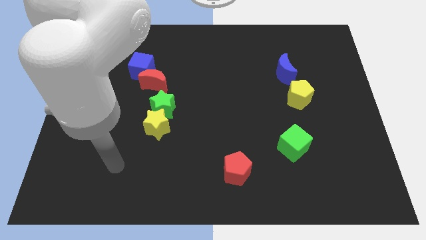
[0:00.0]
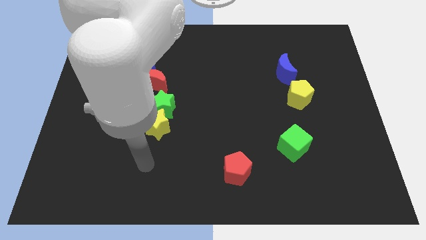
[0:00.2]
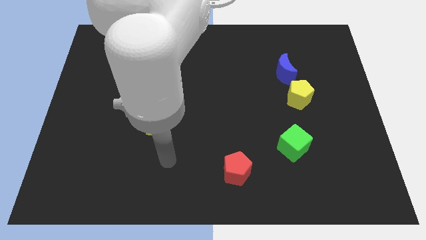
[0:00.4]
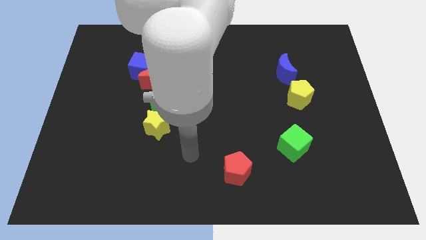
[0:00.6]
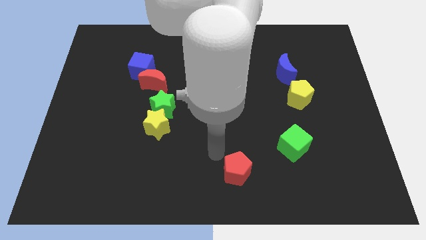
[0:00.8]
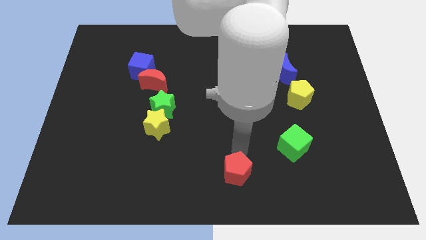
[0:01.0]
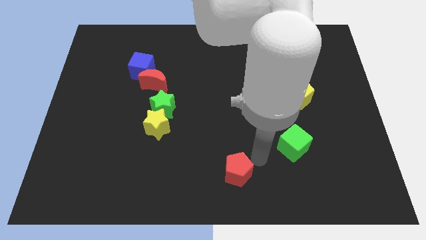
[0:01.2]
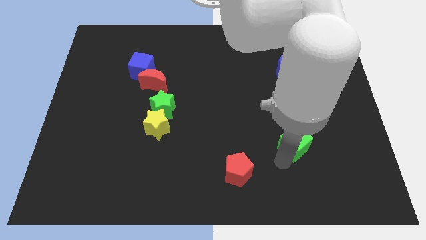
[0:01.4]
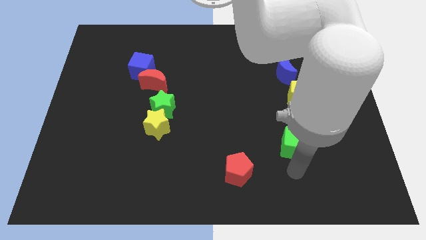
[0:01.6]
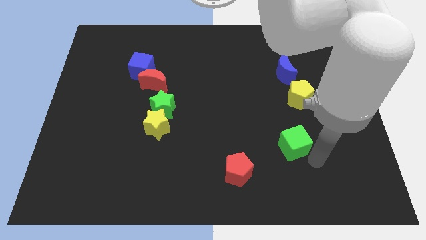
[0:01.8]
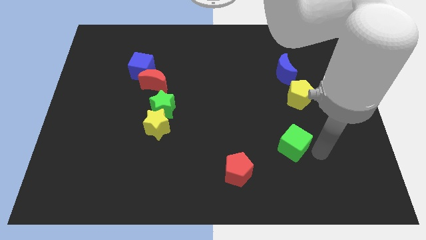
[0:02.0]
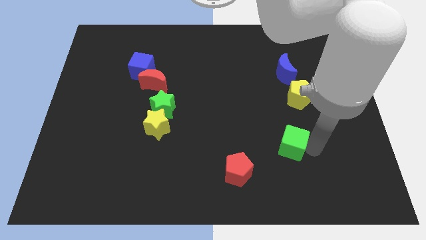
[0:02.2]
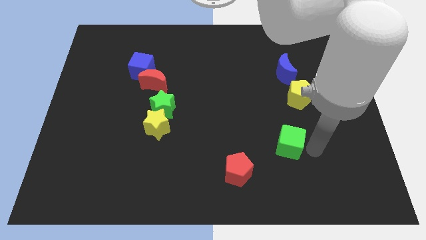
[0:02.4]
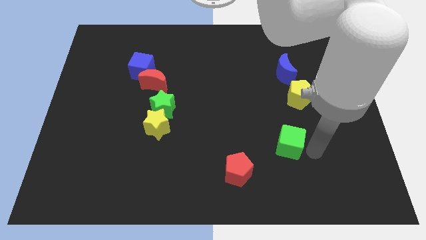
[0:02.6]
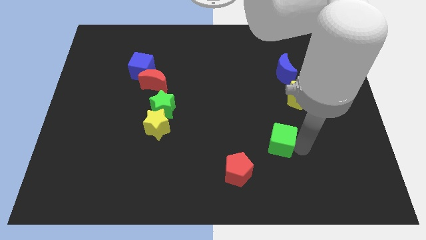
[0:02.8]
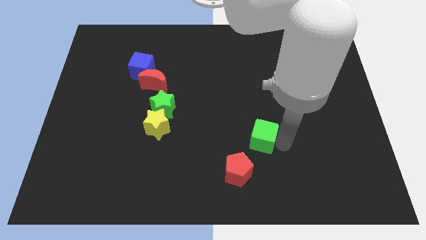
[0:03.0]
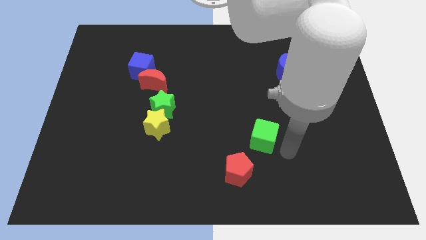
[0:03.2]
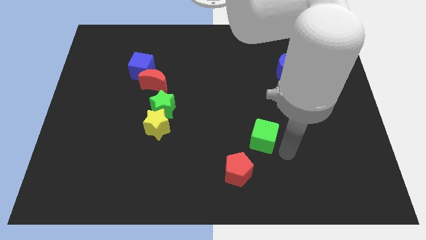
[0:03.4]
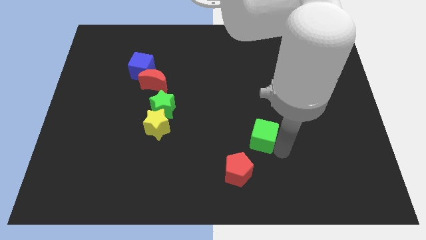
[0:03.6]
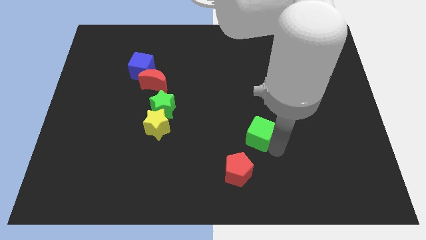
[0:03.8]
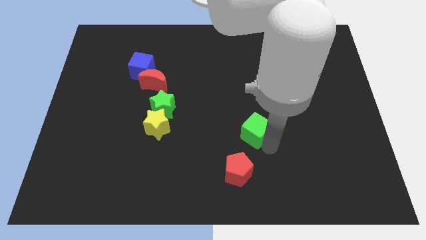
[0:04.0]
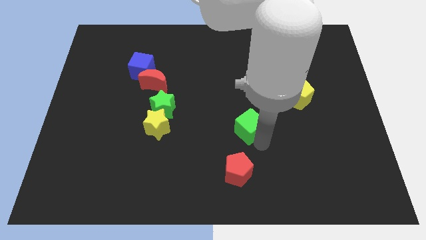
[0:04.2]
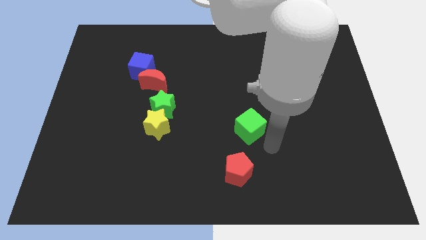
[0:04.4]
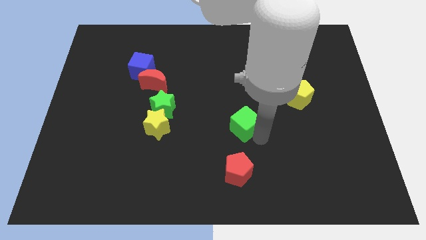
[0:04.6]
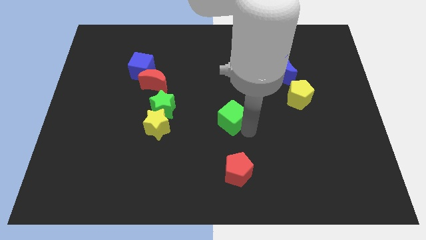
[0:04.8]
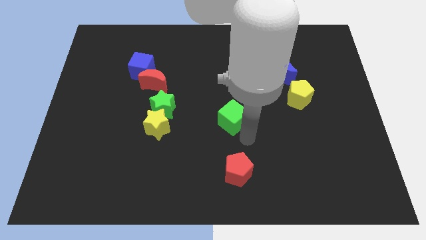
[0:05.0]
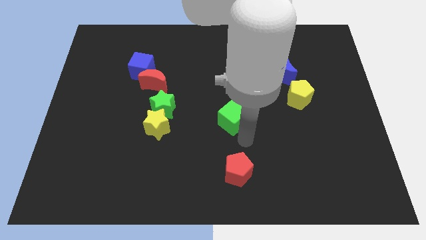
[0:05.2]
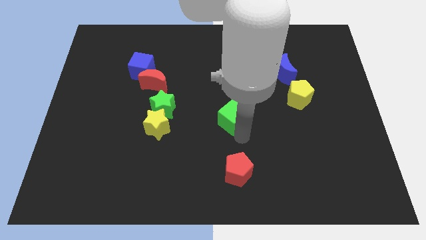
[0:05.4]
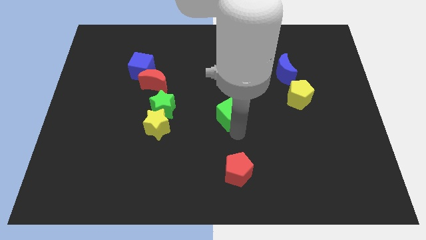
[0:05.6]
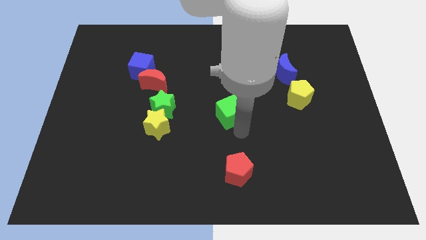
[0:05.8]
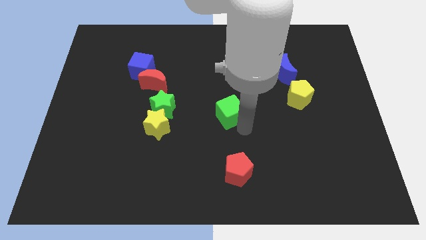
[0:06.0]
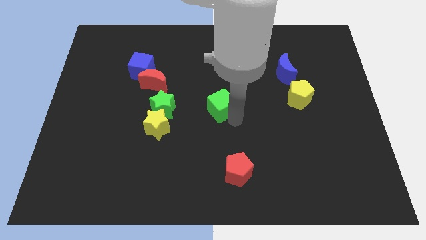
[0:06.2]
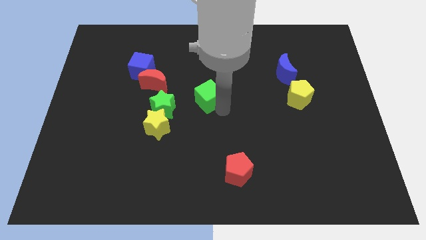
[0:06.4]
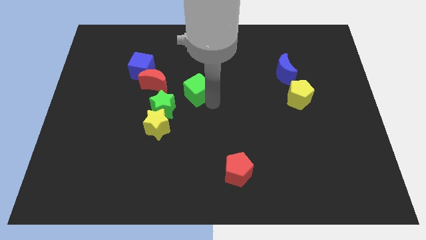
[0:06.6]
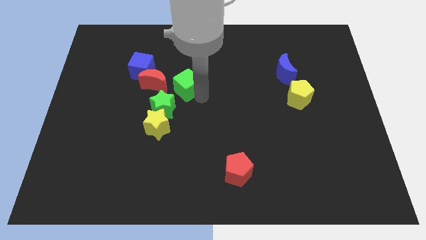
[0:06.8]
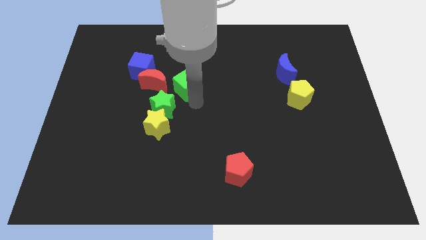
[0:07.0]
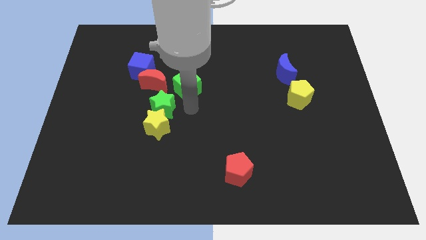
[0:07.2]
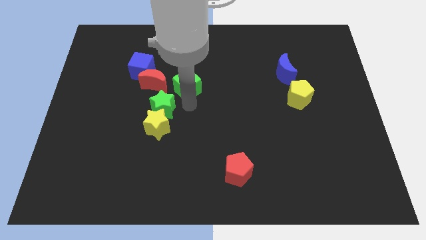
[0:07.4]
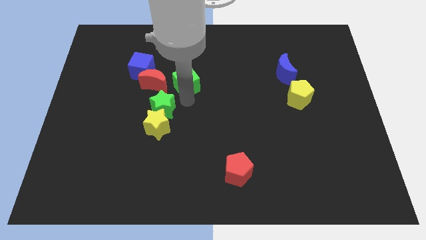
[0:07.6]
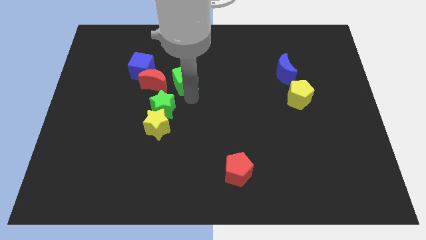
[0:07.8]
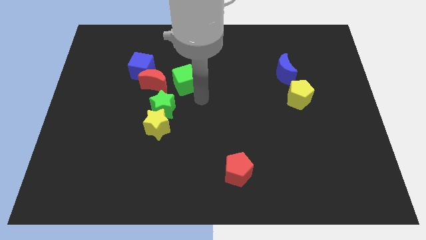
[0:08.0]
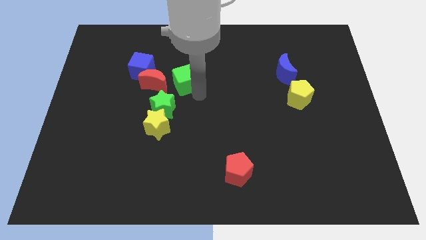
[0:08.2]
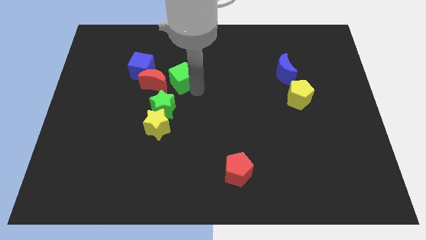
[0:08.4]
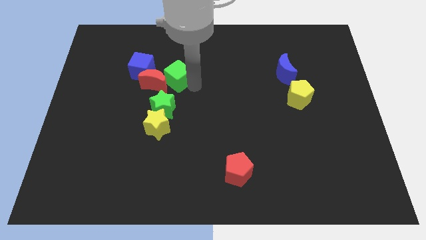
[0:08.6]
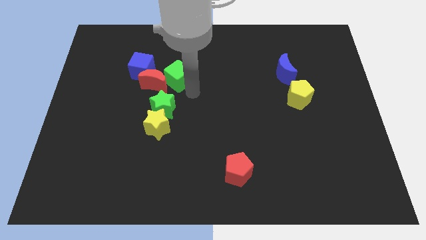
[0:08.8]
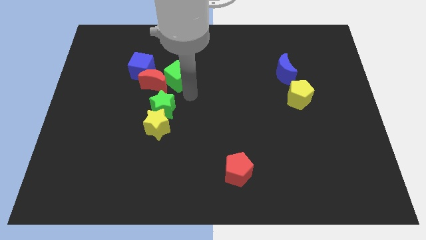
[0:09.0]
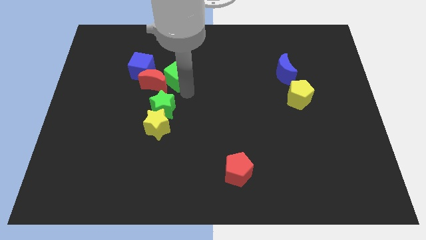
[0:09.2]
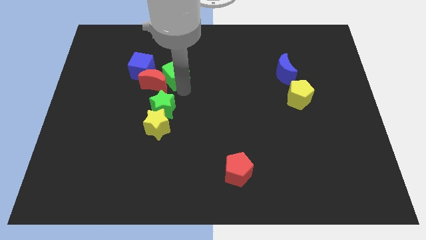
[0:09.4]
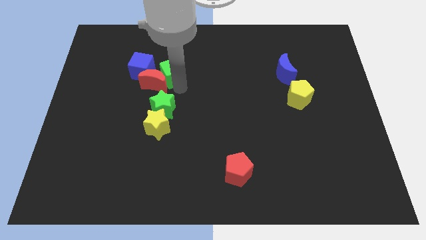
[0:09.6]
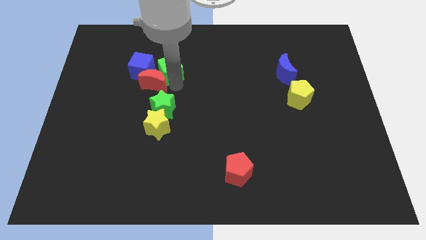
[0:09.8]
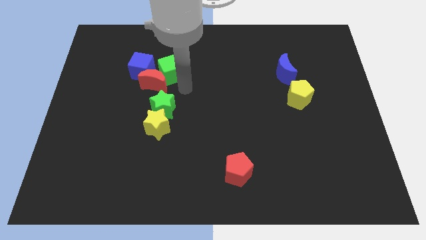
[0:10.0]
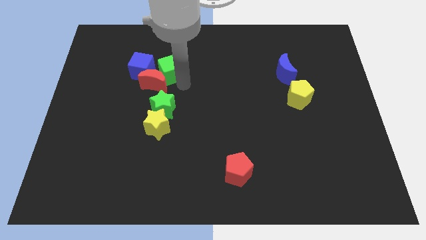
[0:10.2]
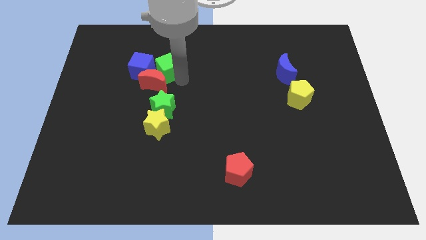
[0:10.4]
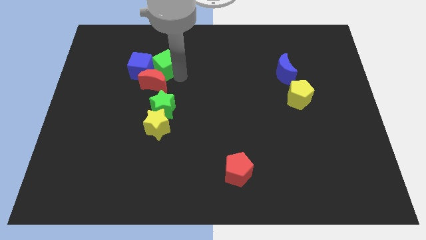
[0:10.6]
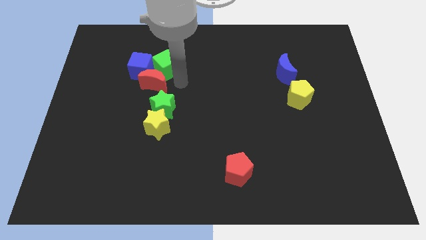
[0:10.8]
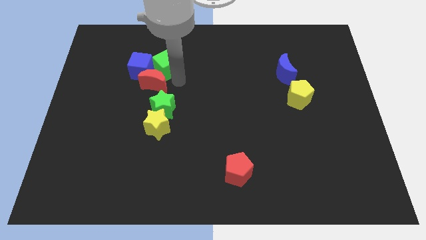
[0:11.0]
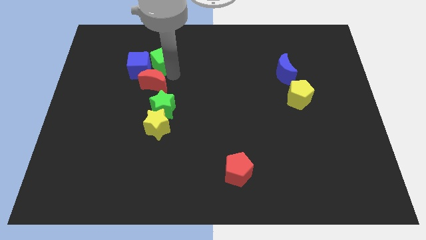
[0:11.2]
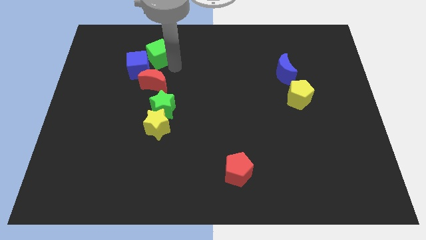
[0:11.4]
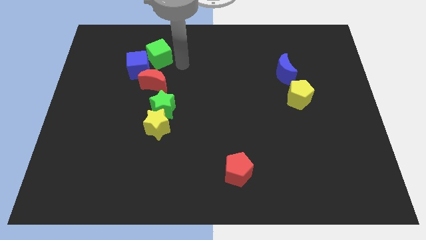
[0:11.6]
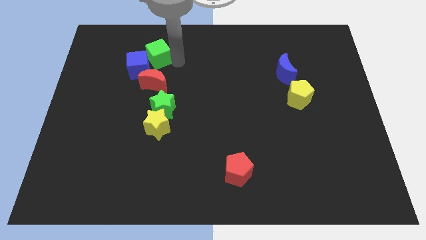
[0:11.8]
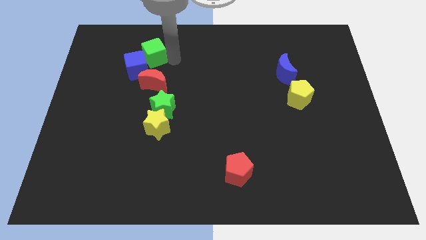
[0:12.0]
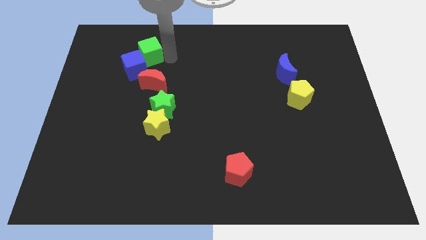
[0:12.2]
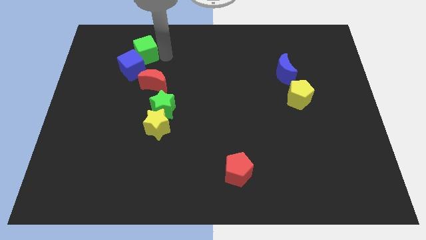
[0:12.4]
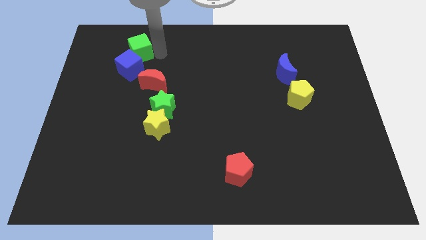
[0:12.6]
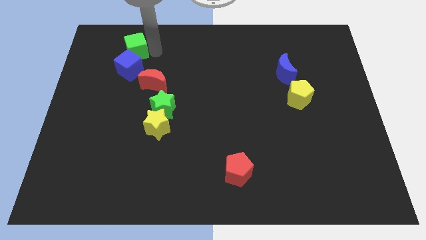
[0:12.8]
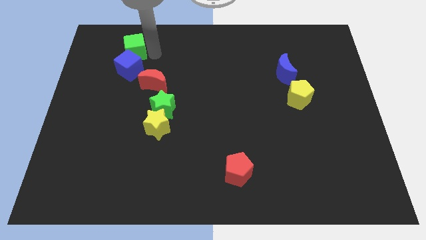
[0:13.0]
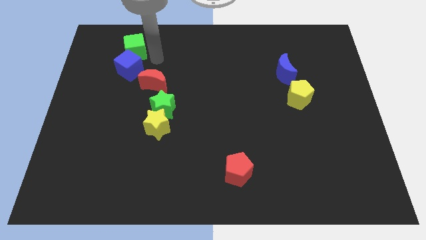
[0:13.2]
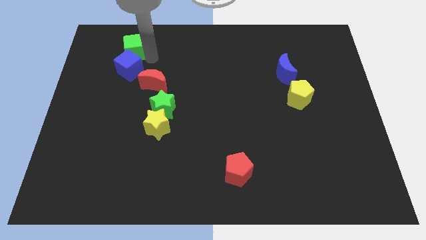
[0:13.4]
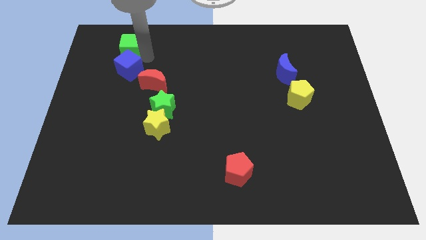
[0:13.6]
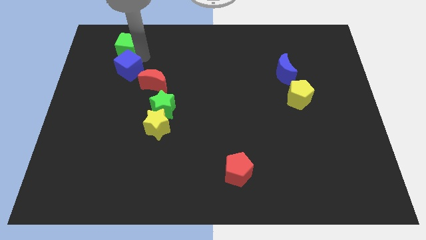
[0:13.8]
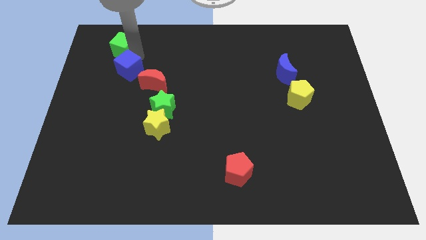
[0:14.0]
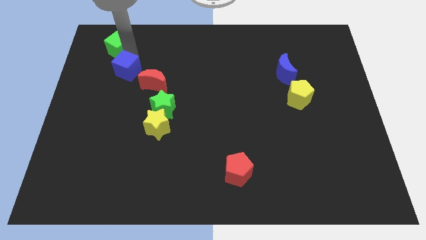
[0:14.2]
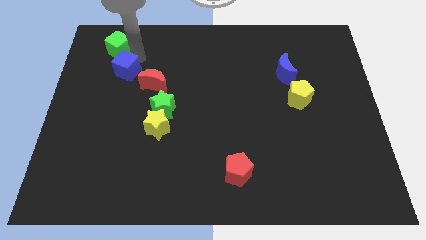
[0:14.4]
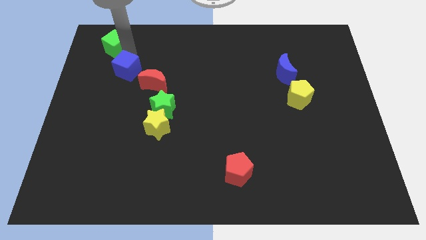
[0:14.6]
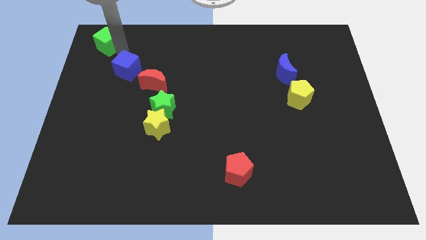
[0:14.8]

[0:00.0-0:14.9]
move the green cube to the top left of the board
